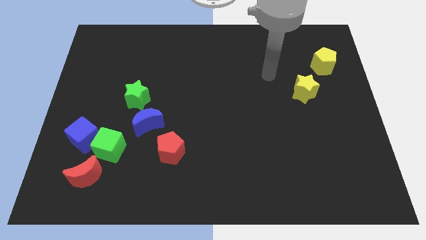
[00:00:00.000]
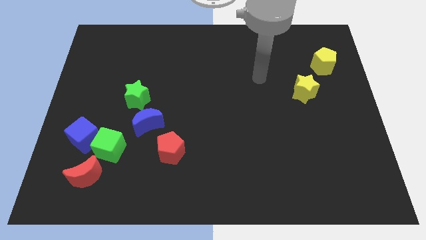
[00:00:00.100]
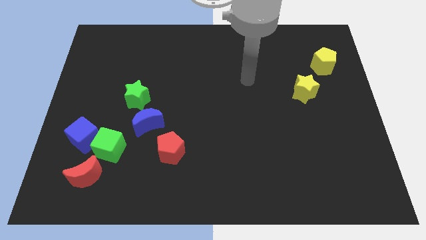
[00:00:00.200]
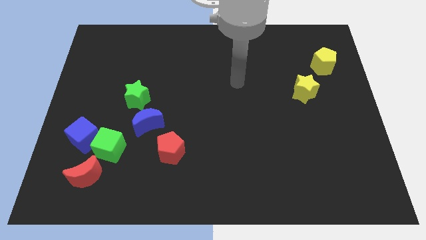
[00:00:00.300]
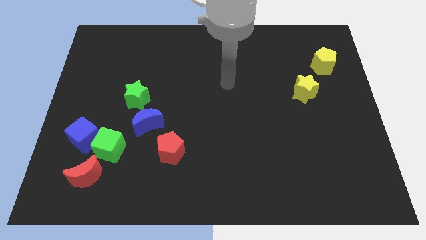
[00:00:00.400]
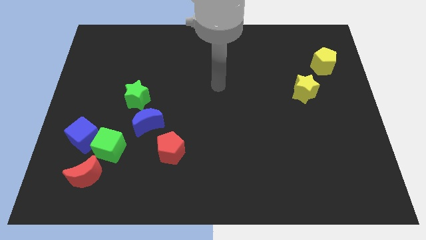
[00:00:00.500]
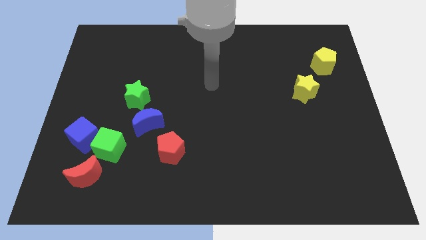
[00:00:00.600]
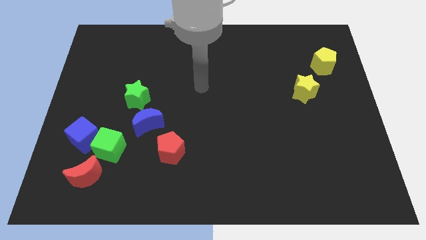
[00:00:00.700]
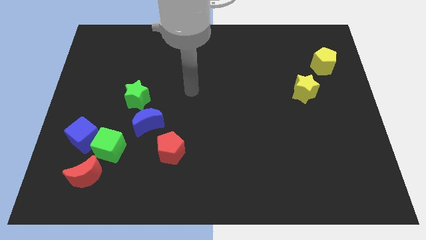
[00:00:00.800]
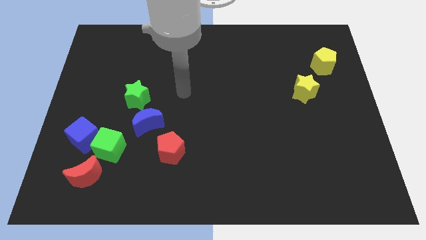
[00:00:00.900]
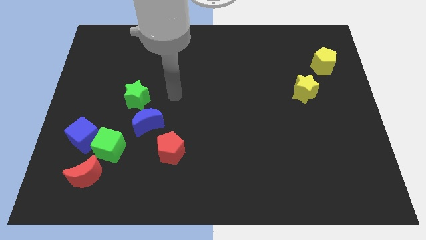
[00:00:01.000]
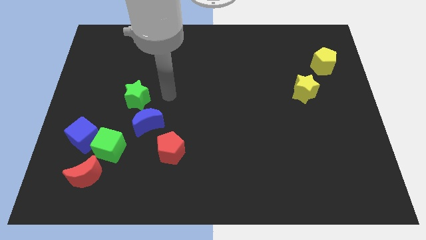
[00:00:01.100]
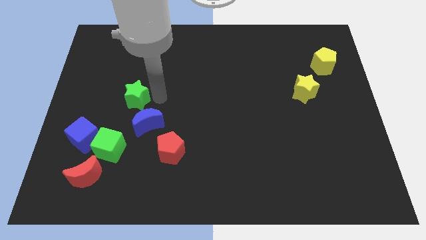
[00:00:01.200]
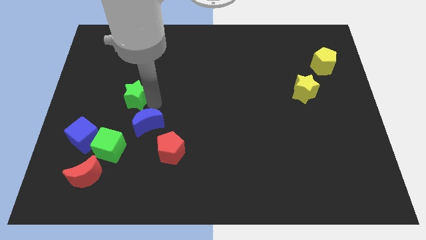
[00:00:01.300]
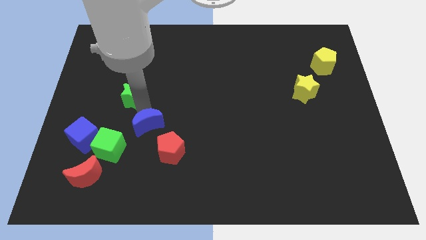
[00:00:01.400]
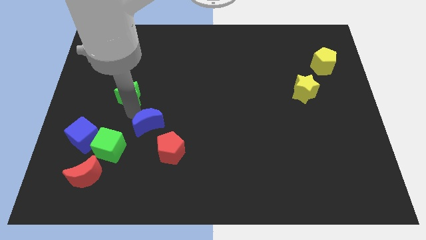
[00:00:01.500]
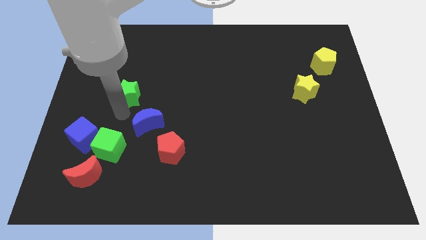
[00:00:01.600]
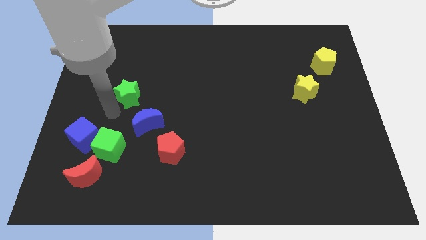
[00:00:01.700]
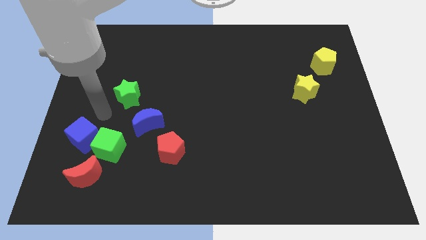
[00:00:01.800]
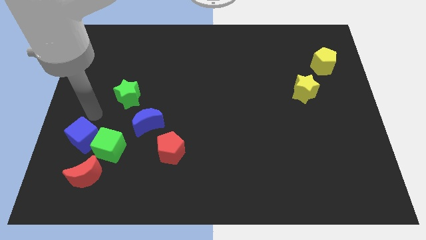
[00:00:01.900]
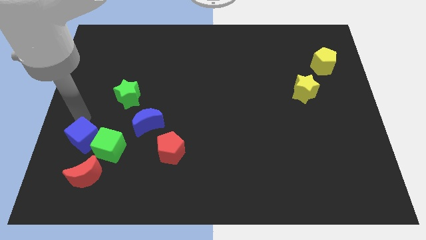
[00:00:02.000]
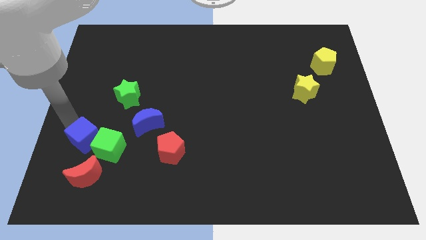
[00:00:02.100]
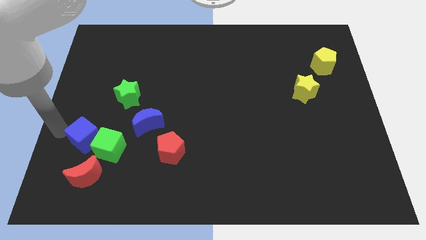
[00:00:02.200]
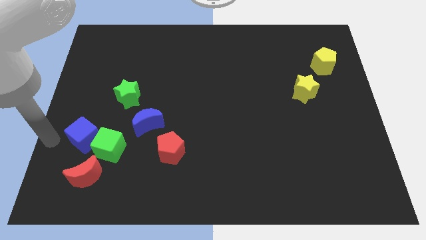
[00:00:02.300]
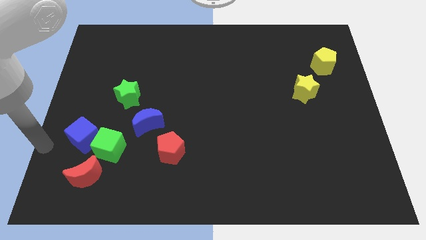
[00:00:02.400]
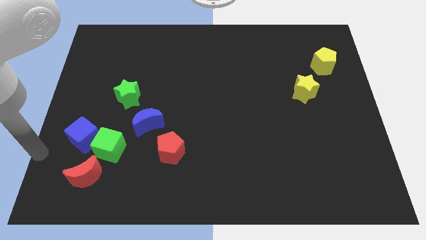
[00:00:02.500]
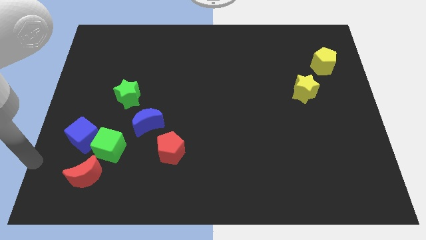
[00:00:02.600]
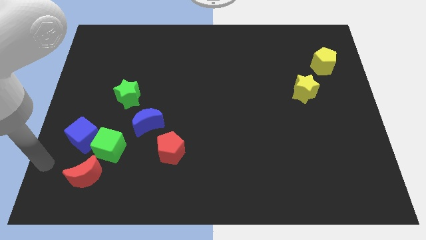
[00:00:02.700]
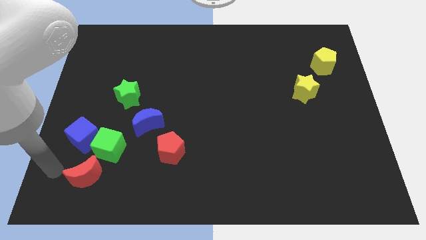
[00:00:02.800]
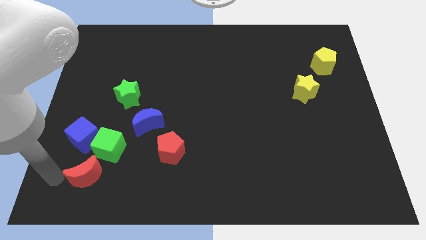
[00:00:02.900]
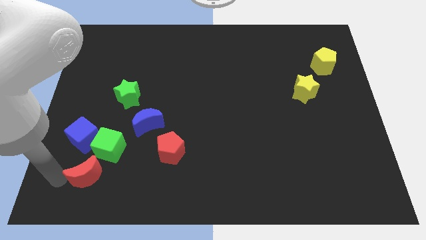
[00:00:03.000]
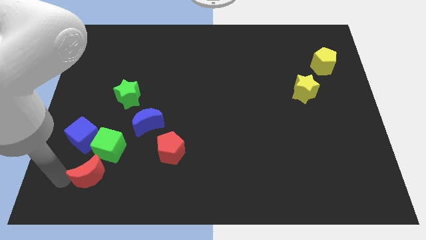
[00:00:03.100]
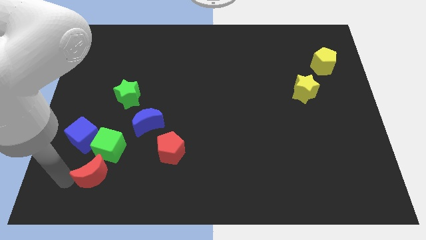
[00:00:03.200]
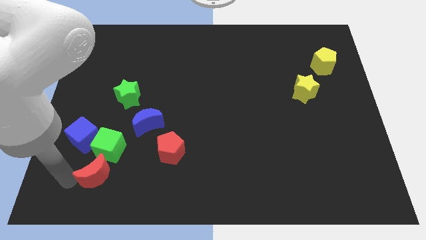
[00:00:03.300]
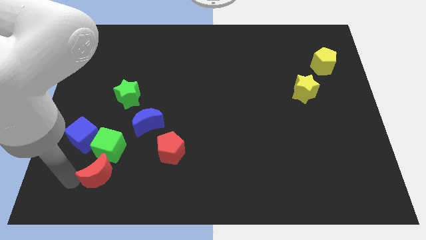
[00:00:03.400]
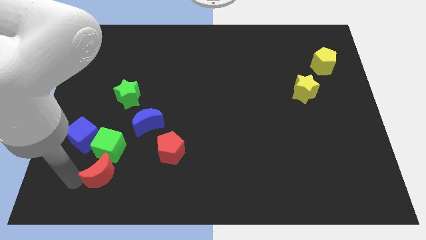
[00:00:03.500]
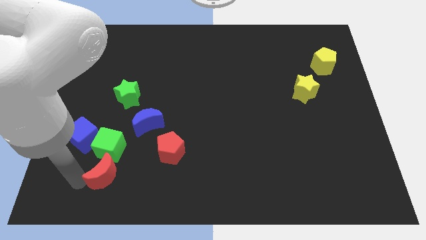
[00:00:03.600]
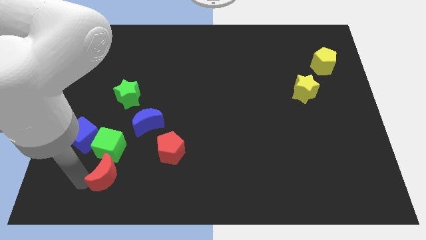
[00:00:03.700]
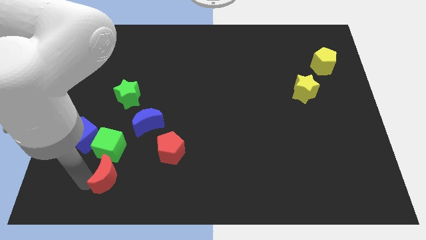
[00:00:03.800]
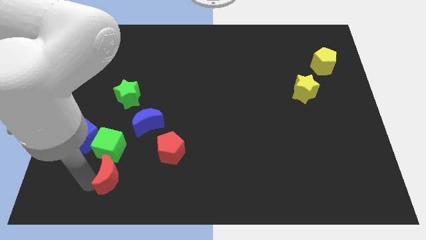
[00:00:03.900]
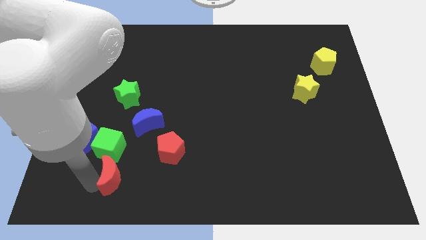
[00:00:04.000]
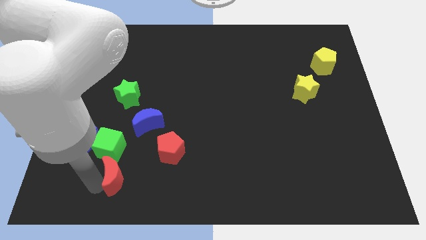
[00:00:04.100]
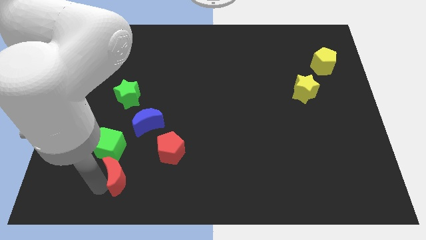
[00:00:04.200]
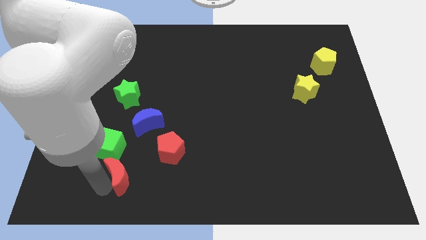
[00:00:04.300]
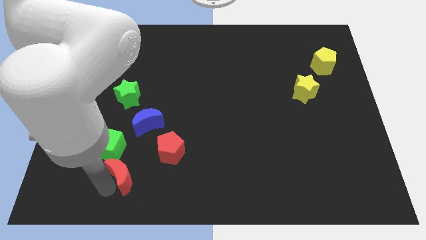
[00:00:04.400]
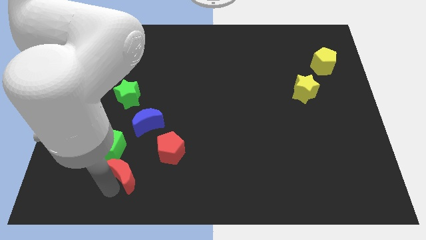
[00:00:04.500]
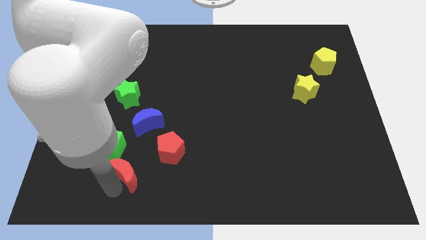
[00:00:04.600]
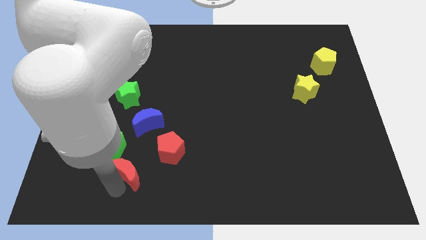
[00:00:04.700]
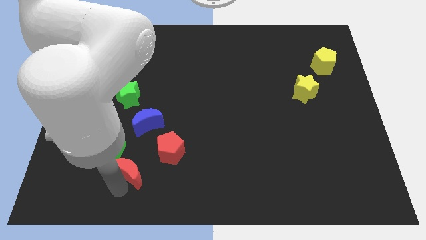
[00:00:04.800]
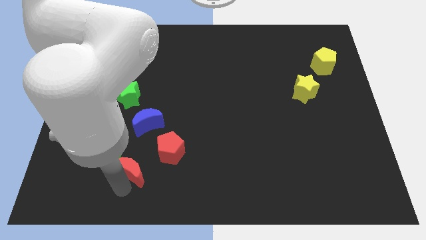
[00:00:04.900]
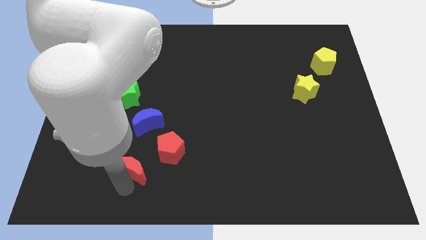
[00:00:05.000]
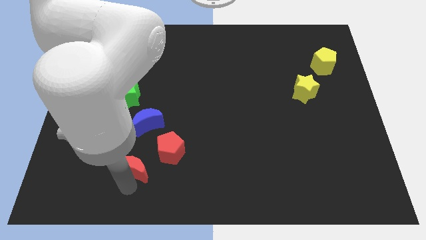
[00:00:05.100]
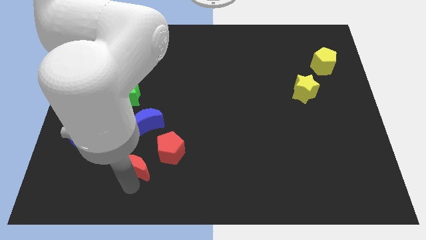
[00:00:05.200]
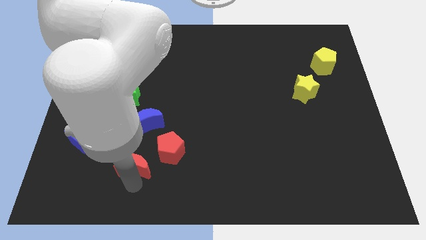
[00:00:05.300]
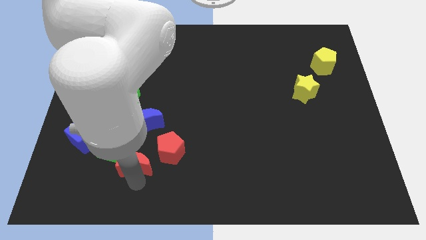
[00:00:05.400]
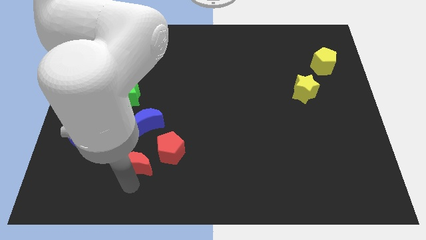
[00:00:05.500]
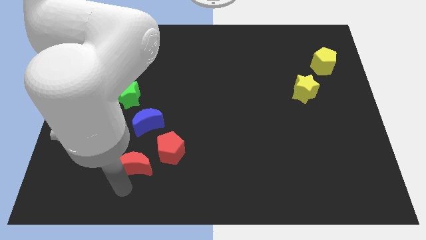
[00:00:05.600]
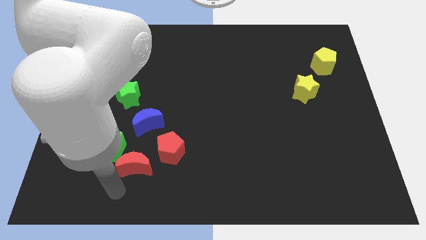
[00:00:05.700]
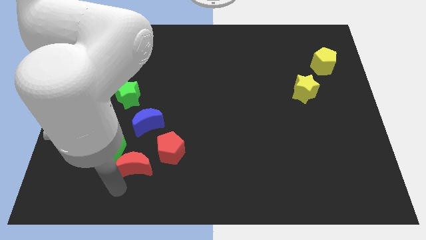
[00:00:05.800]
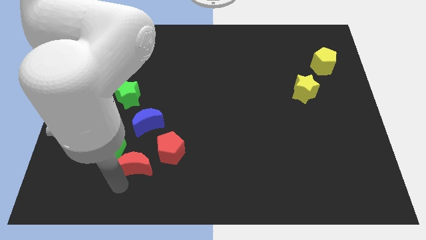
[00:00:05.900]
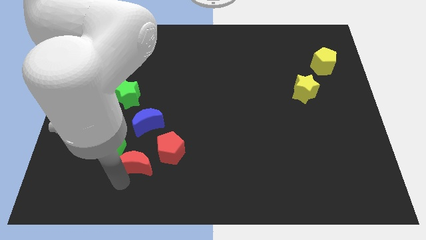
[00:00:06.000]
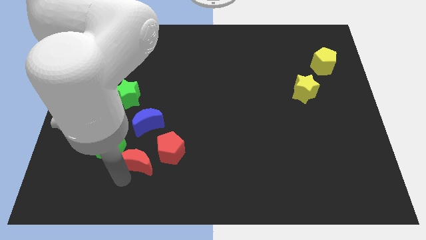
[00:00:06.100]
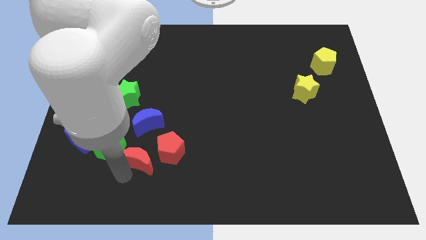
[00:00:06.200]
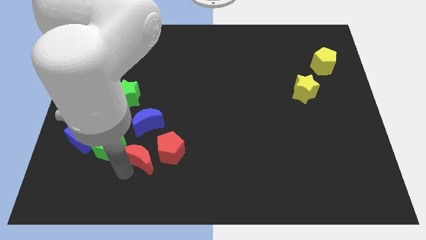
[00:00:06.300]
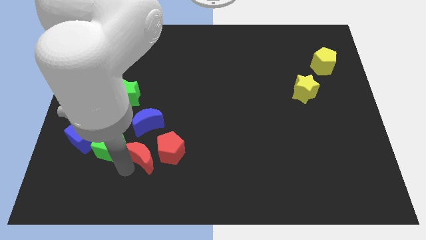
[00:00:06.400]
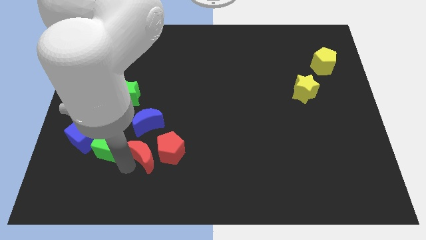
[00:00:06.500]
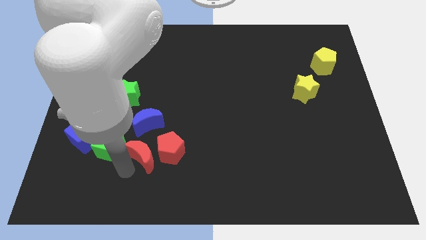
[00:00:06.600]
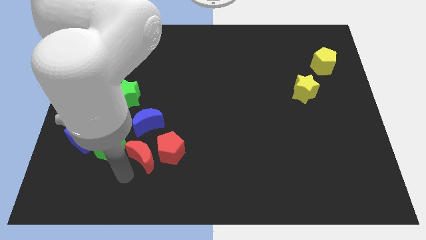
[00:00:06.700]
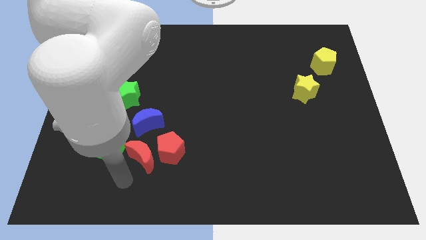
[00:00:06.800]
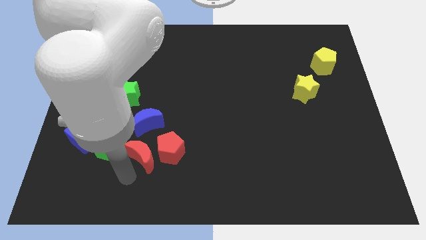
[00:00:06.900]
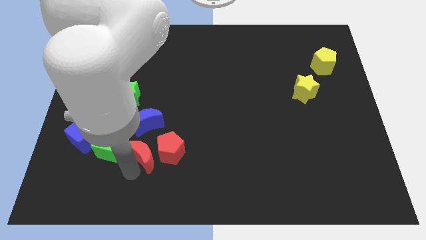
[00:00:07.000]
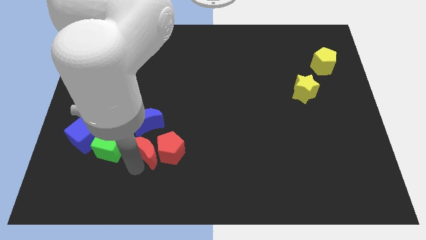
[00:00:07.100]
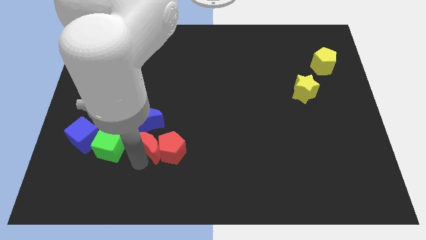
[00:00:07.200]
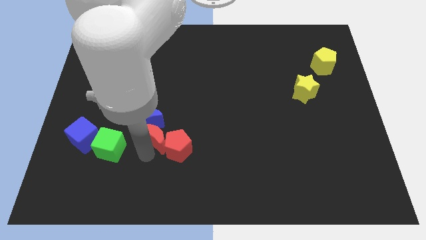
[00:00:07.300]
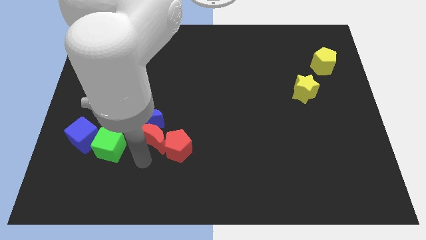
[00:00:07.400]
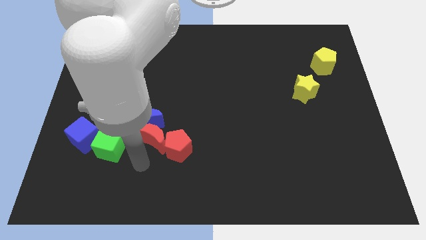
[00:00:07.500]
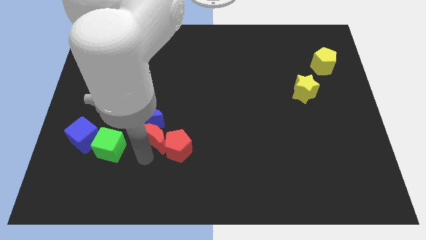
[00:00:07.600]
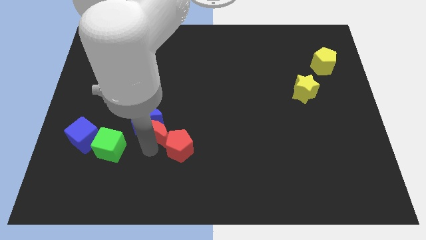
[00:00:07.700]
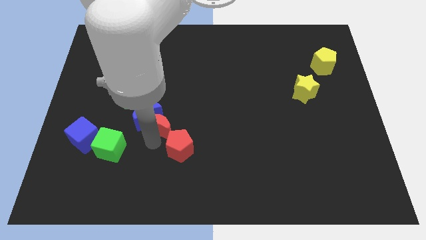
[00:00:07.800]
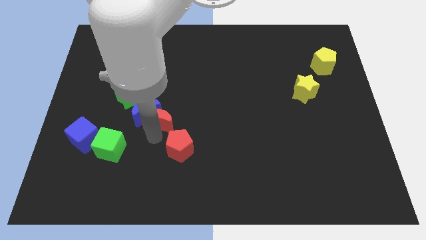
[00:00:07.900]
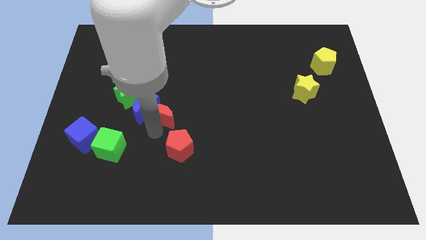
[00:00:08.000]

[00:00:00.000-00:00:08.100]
move the red moon up and then right

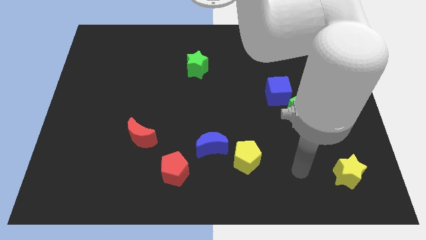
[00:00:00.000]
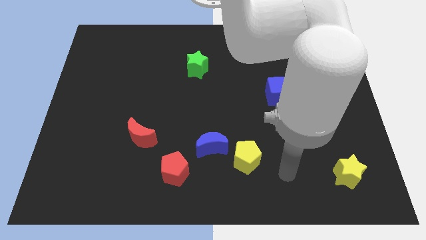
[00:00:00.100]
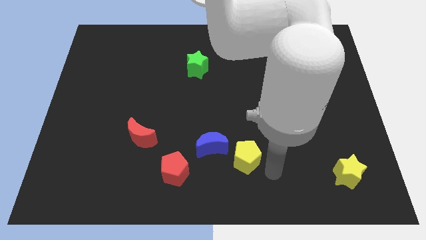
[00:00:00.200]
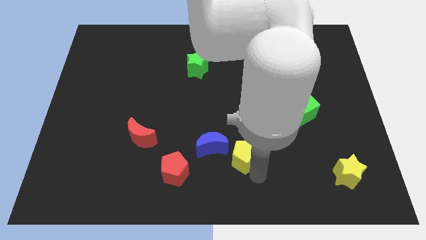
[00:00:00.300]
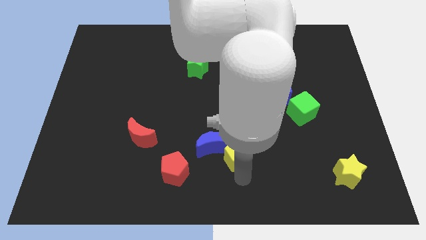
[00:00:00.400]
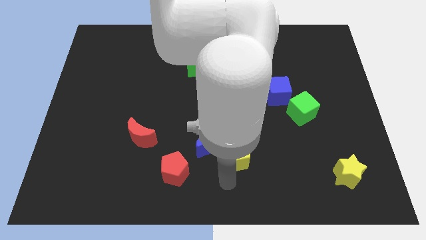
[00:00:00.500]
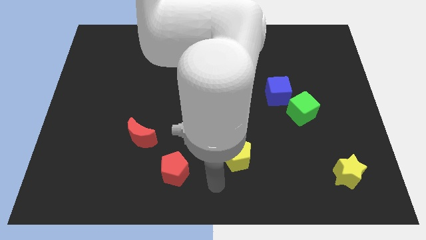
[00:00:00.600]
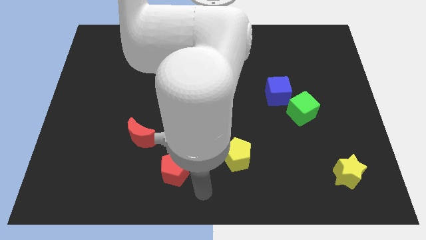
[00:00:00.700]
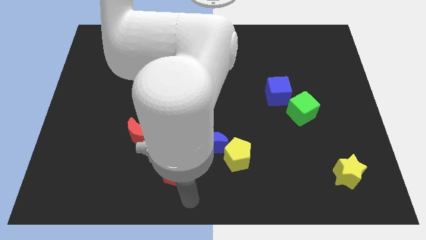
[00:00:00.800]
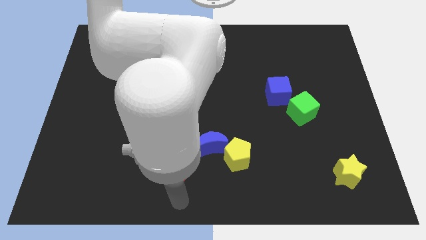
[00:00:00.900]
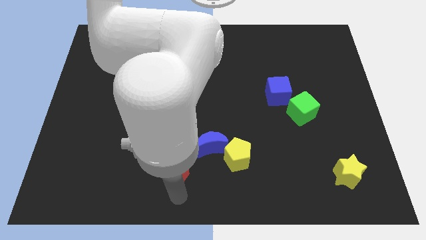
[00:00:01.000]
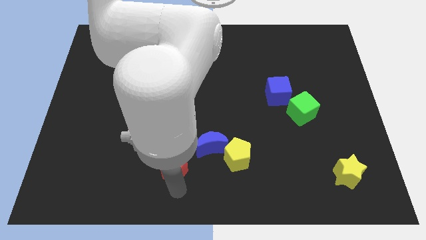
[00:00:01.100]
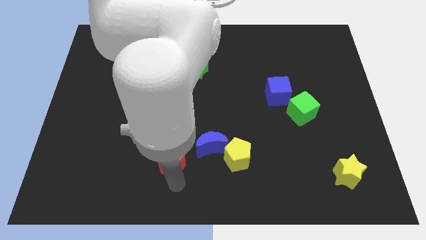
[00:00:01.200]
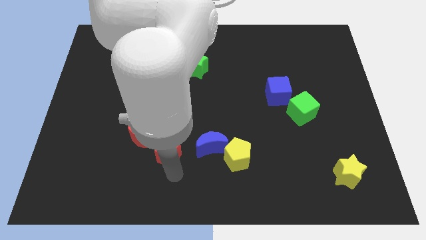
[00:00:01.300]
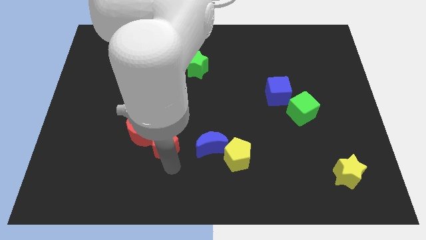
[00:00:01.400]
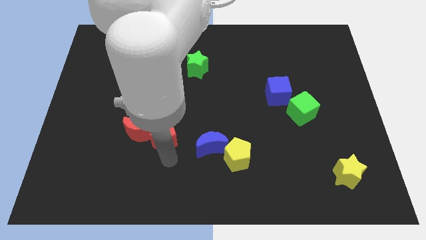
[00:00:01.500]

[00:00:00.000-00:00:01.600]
move the red pentagon a little bit upwards
